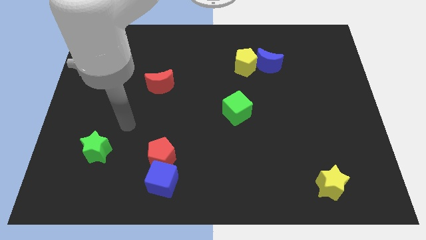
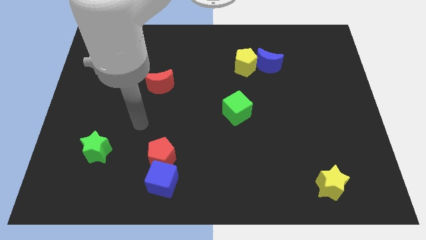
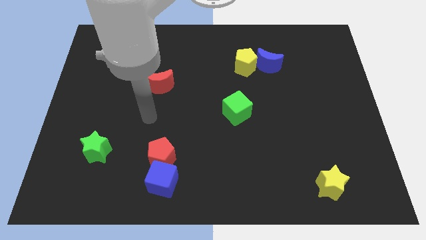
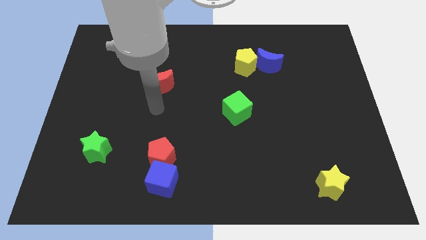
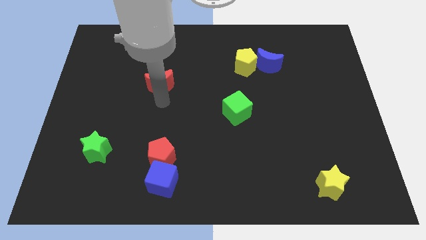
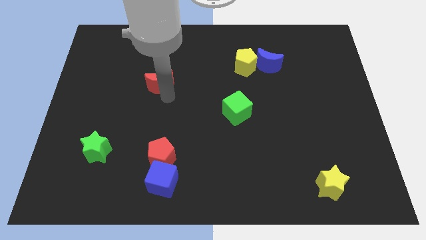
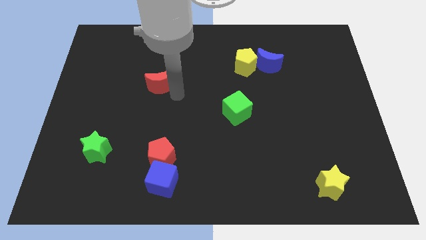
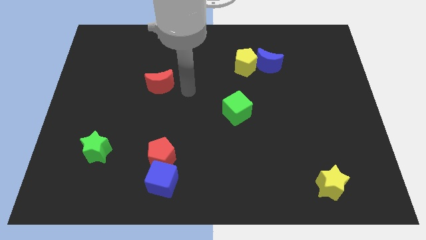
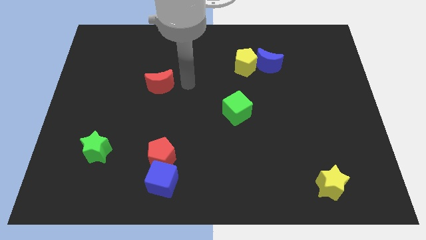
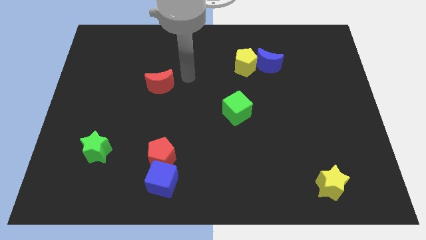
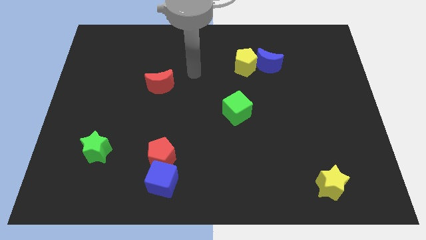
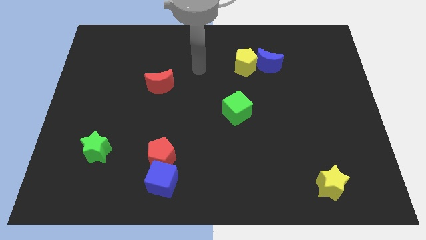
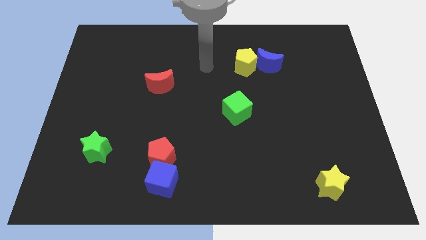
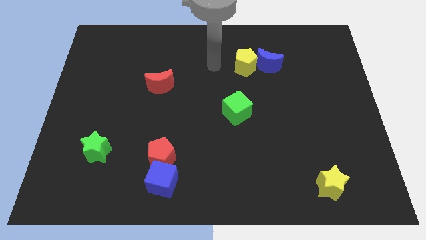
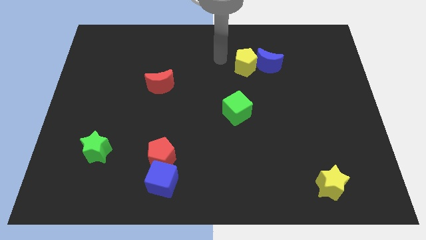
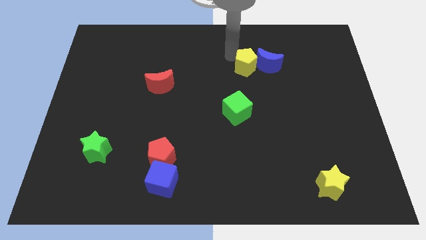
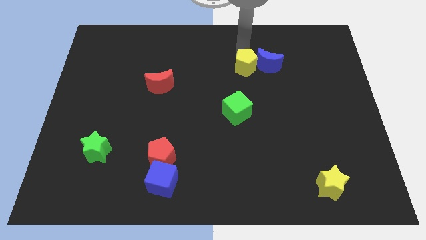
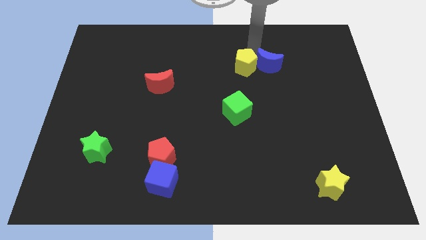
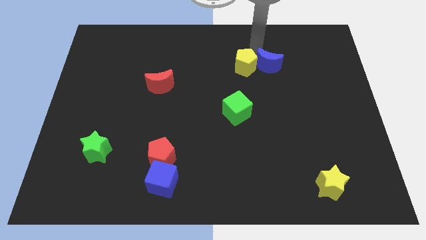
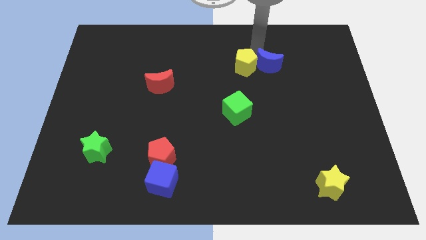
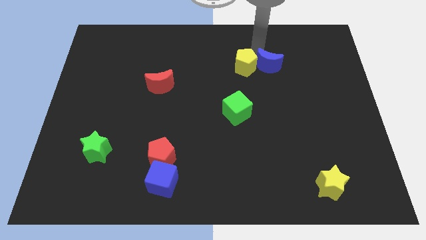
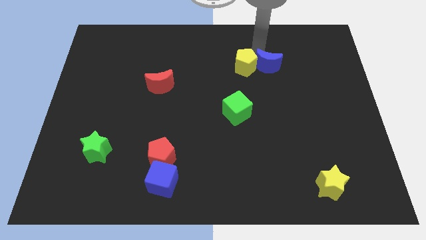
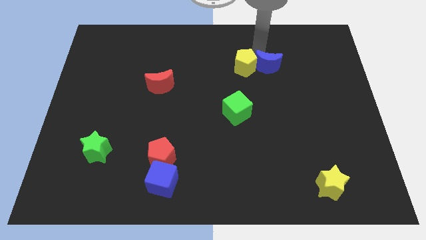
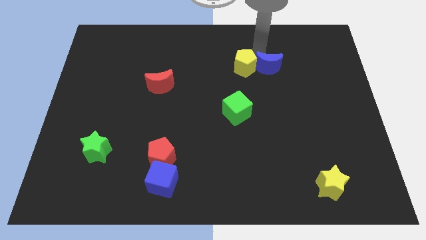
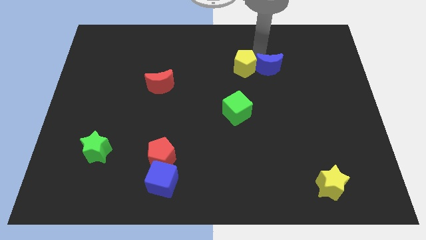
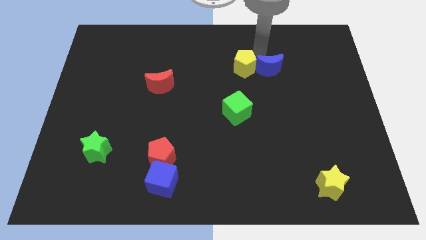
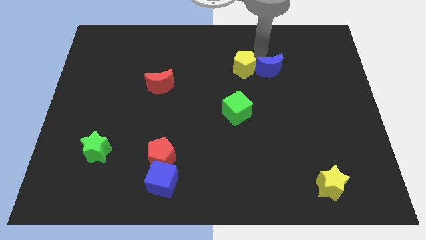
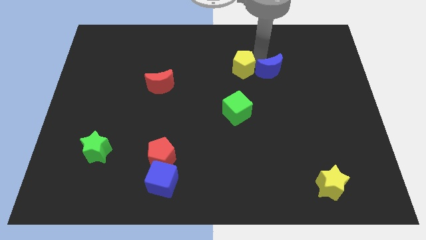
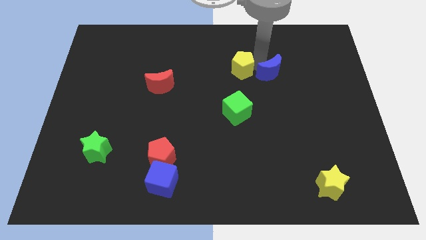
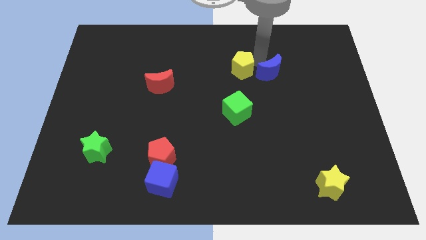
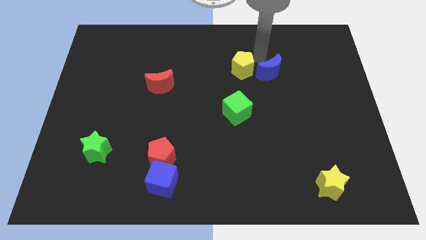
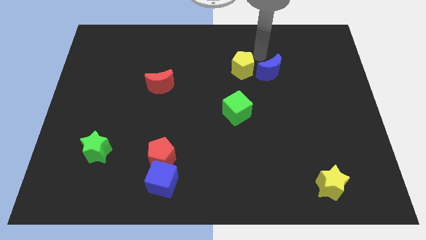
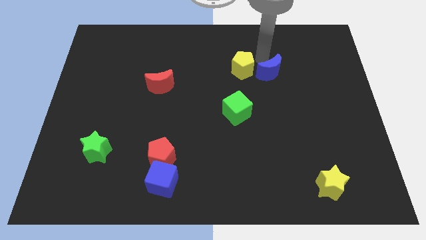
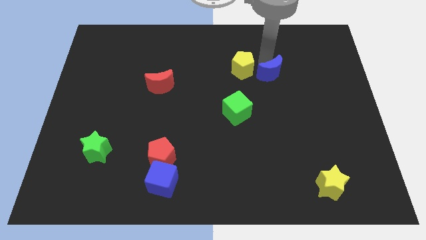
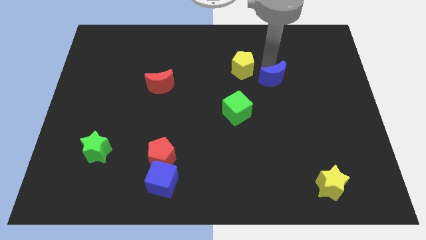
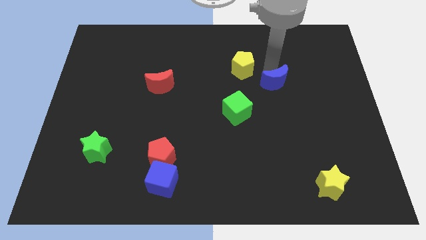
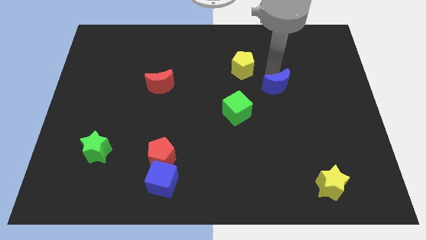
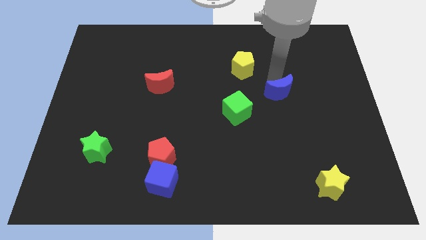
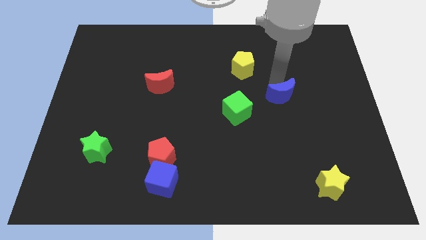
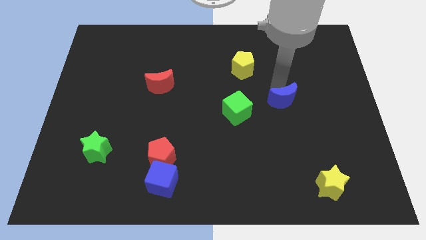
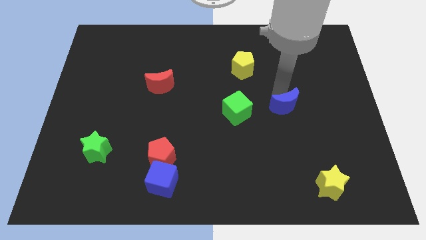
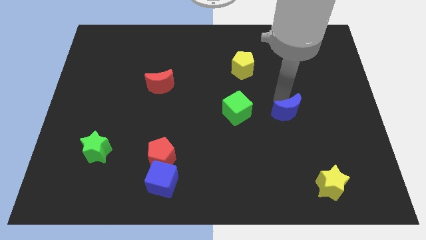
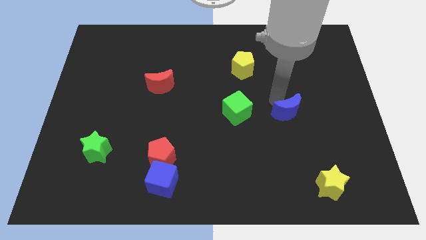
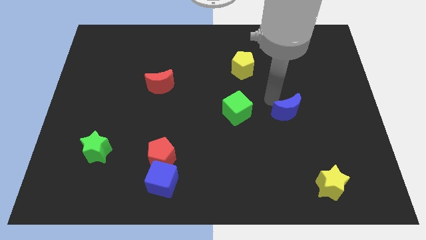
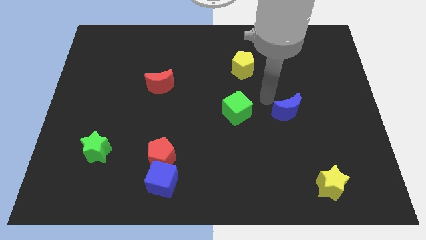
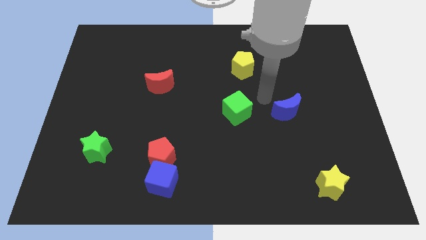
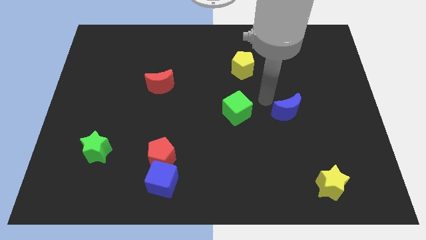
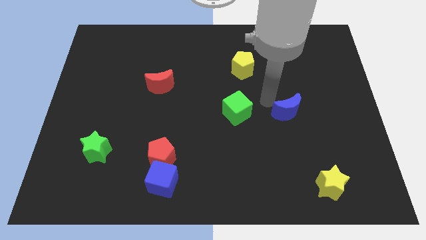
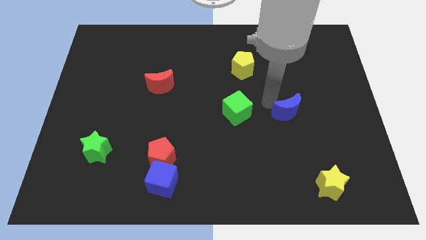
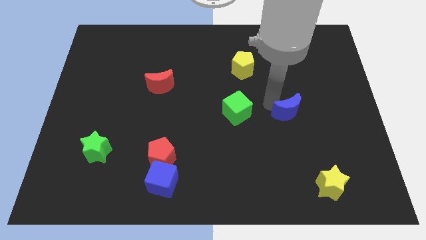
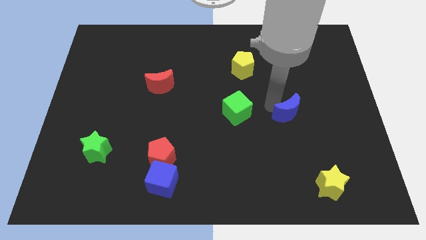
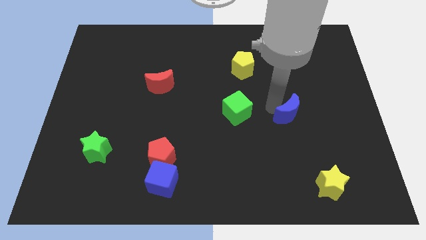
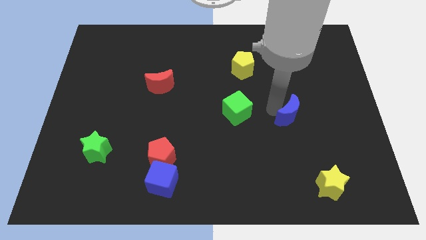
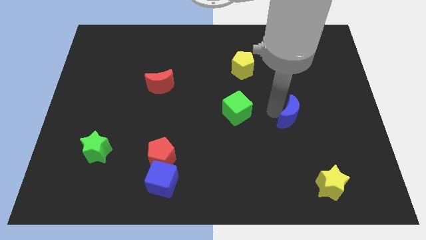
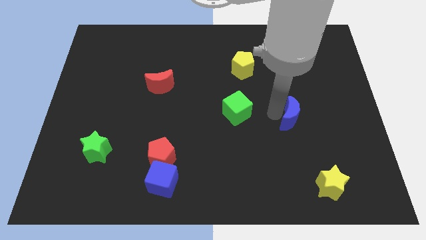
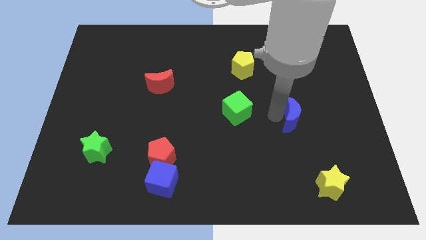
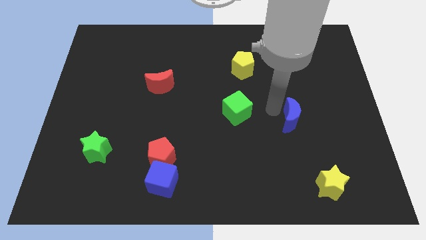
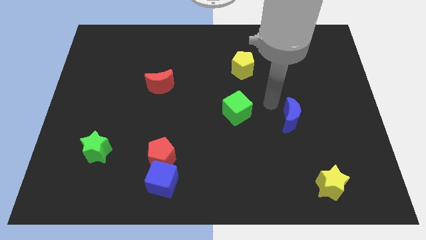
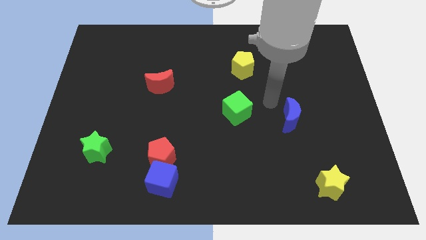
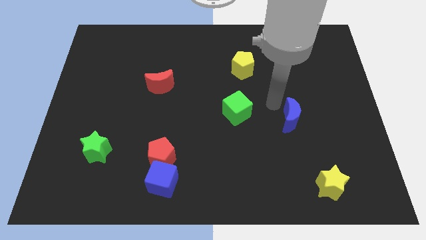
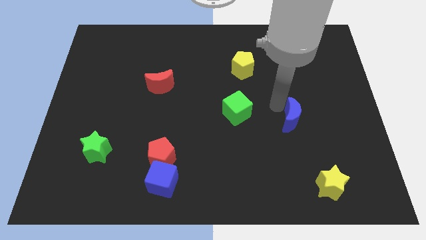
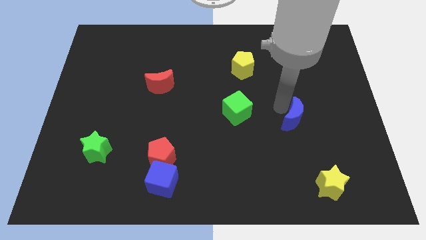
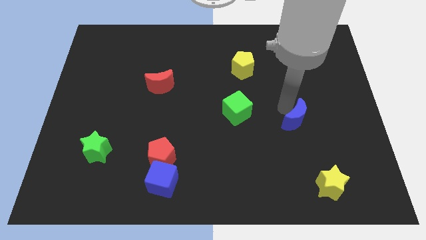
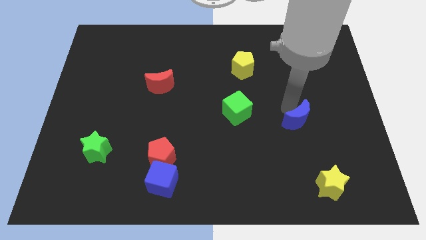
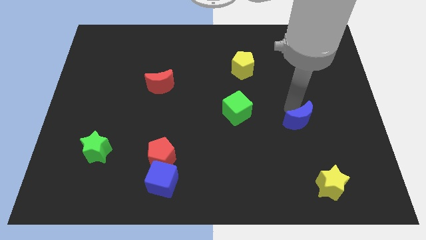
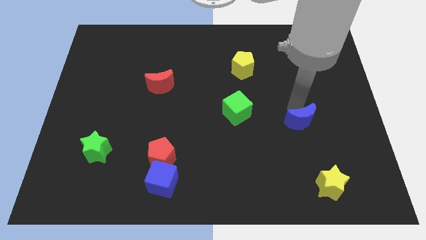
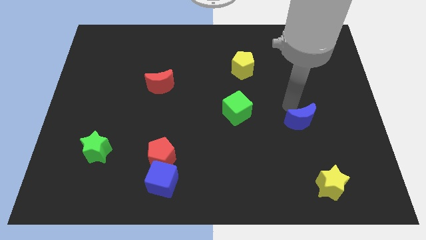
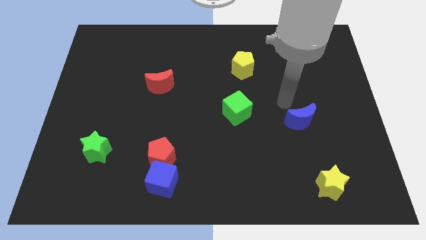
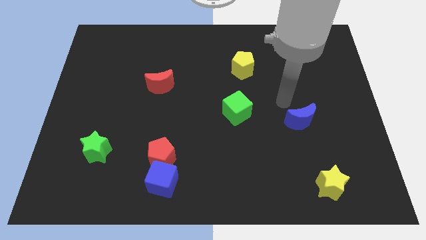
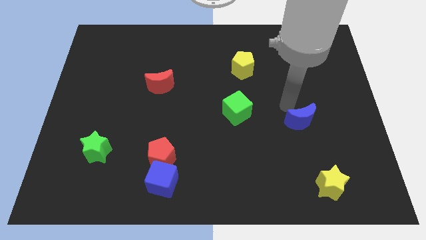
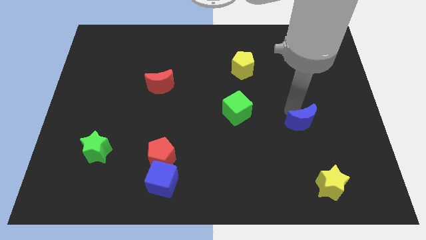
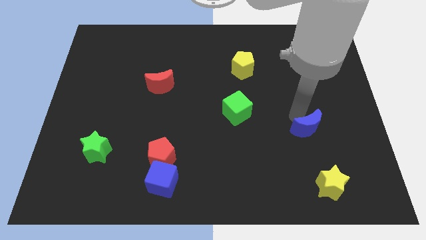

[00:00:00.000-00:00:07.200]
slide the blue moon above the yellow star
